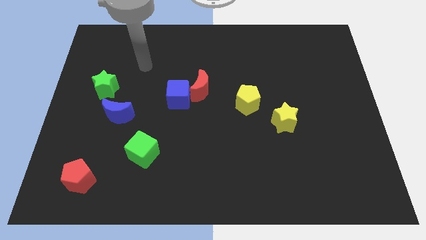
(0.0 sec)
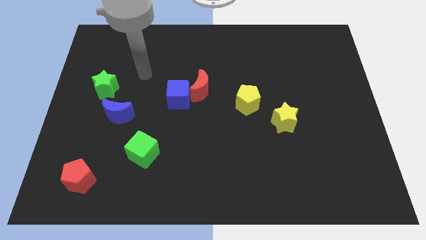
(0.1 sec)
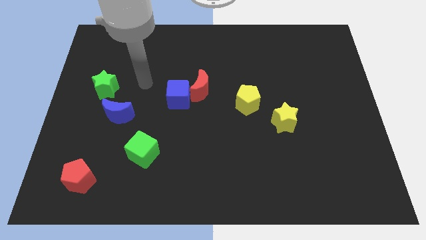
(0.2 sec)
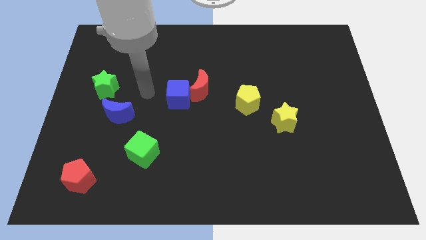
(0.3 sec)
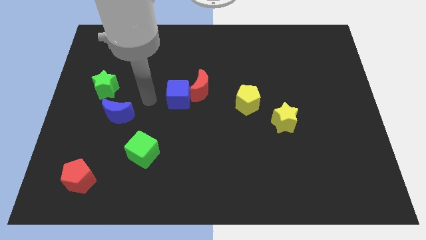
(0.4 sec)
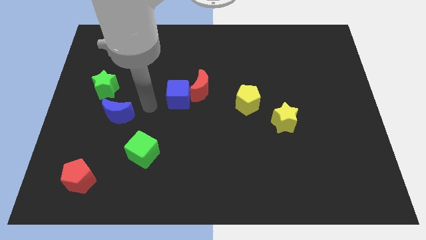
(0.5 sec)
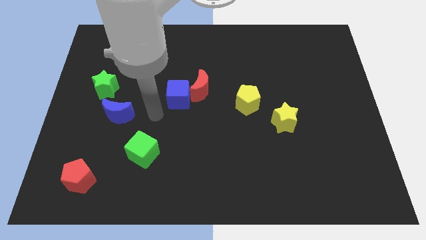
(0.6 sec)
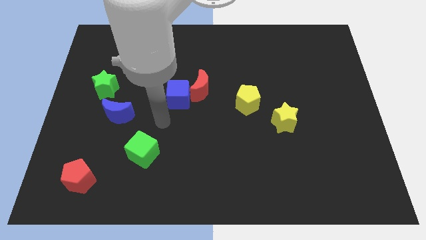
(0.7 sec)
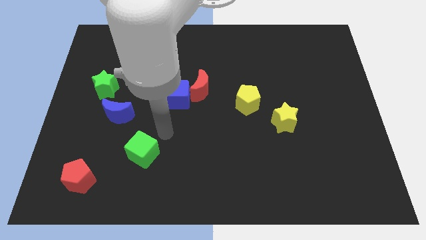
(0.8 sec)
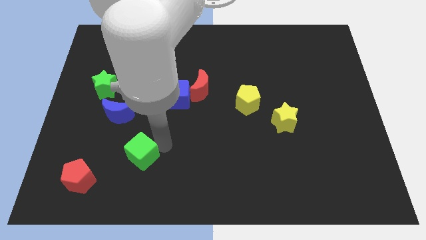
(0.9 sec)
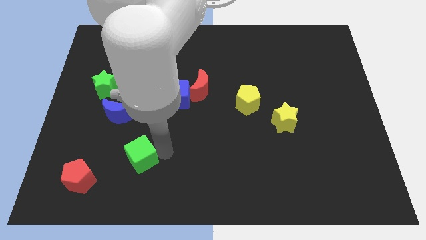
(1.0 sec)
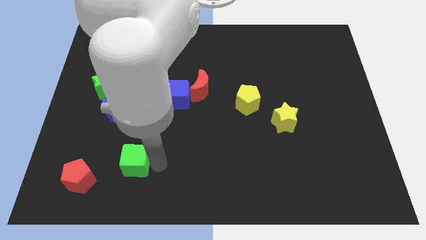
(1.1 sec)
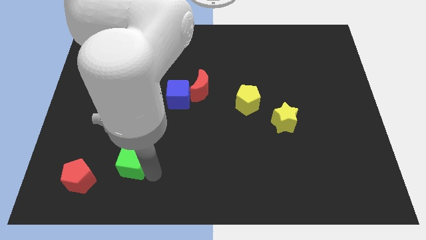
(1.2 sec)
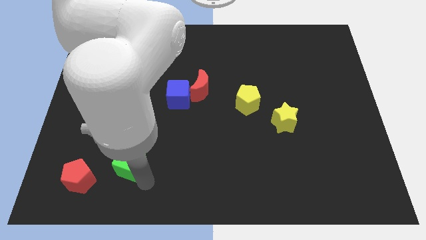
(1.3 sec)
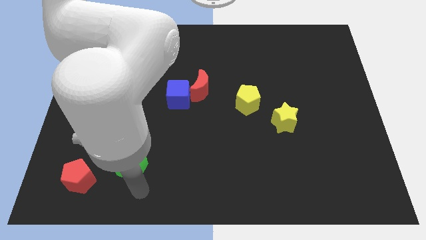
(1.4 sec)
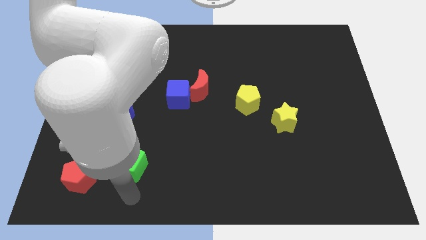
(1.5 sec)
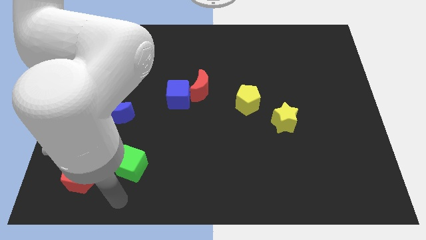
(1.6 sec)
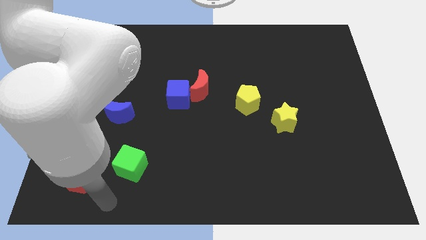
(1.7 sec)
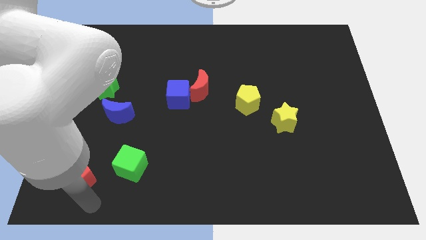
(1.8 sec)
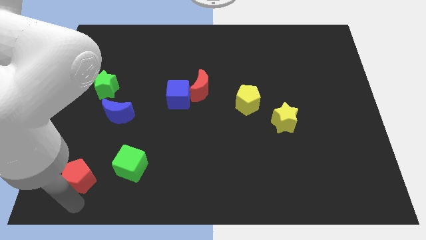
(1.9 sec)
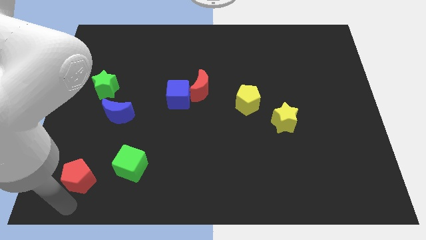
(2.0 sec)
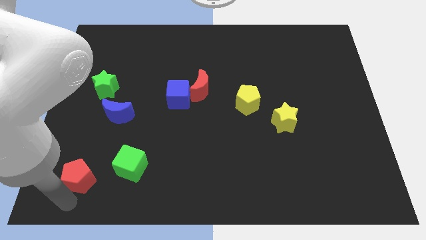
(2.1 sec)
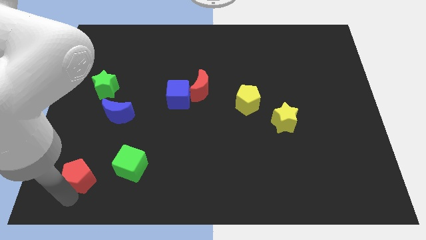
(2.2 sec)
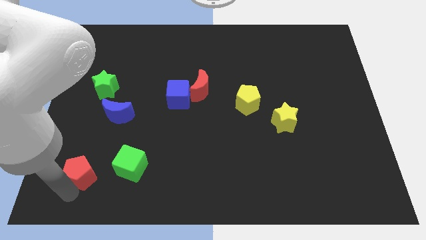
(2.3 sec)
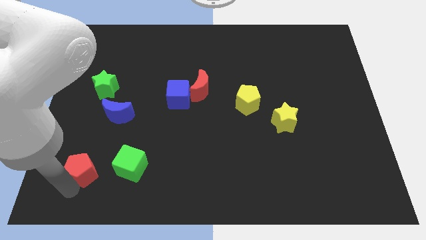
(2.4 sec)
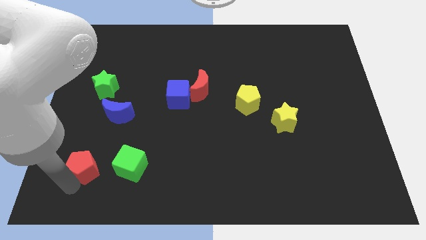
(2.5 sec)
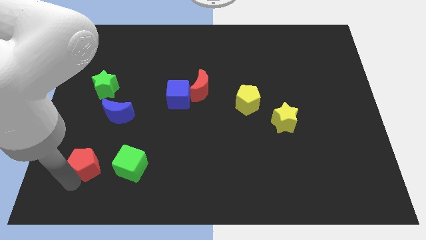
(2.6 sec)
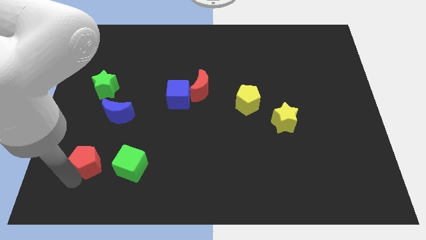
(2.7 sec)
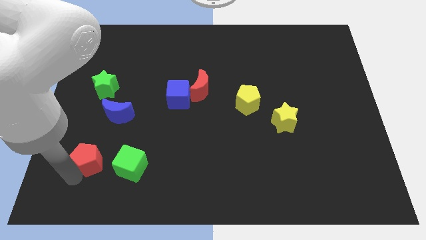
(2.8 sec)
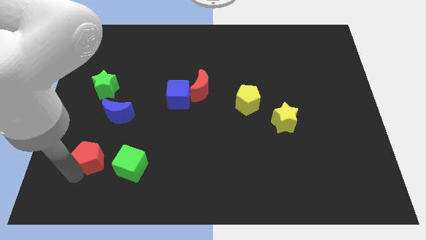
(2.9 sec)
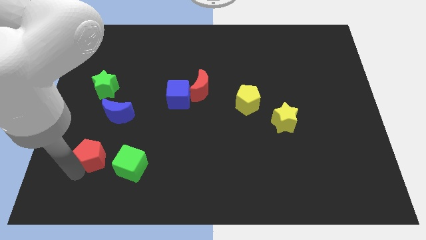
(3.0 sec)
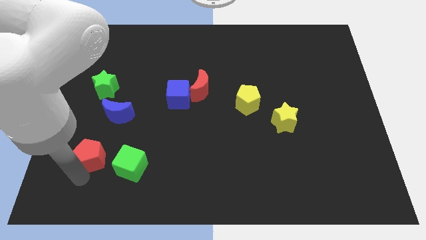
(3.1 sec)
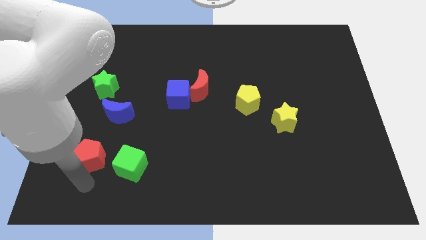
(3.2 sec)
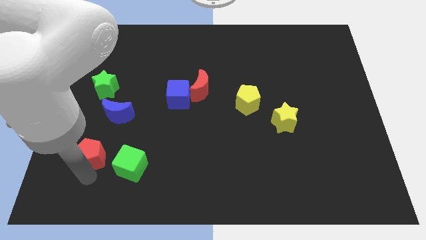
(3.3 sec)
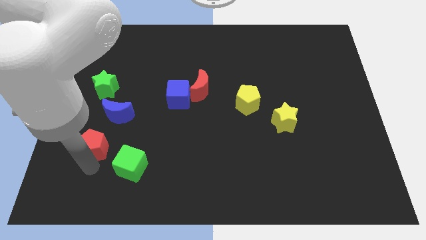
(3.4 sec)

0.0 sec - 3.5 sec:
push the red pentagon up a little bit

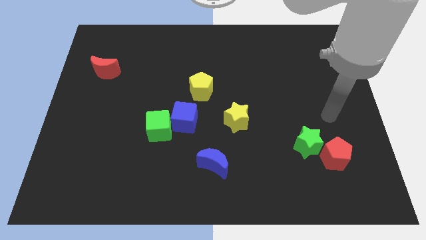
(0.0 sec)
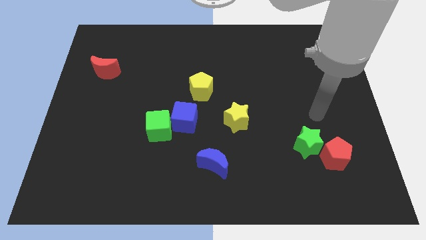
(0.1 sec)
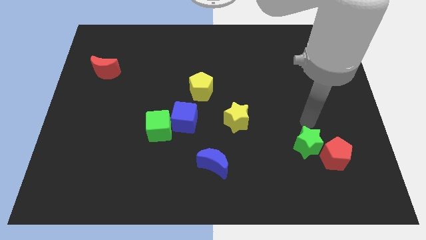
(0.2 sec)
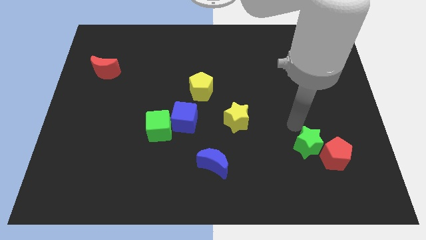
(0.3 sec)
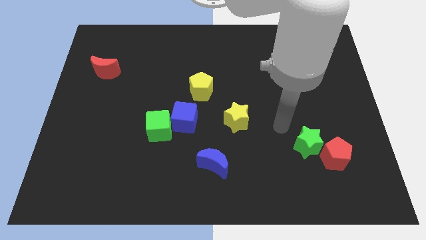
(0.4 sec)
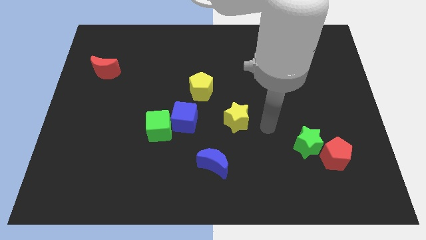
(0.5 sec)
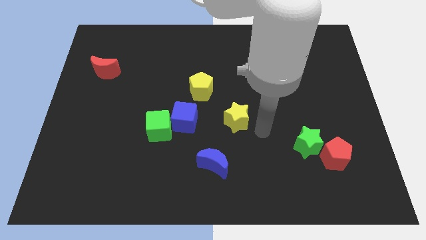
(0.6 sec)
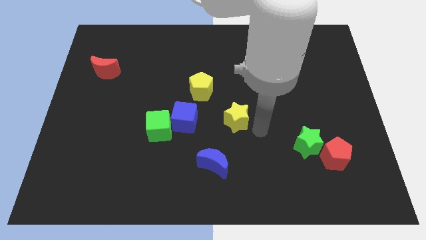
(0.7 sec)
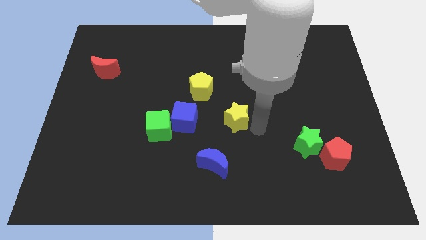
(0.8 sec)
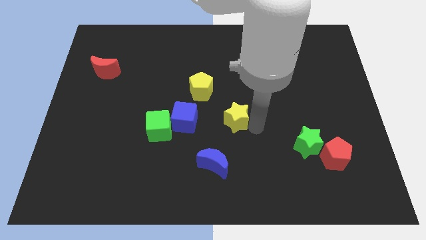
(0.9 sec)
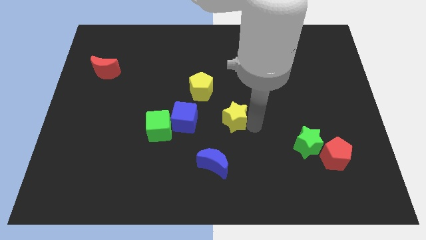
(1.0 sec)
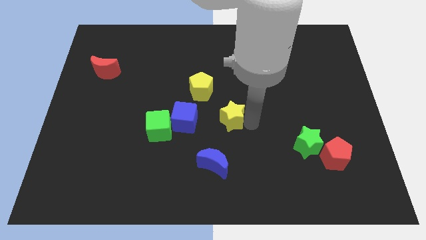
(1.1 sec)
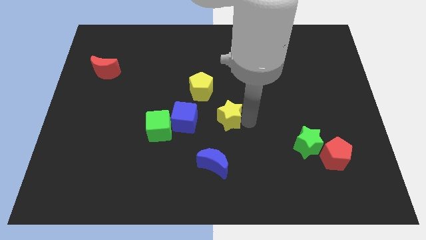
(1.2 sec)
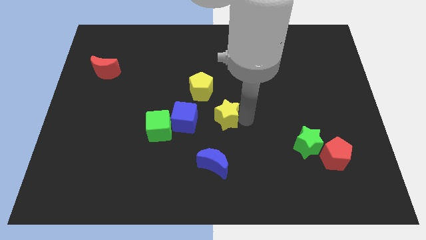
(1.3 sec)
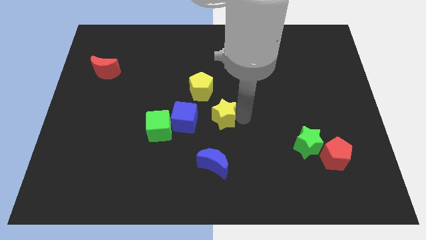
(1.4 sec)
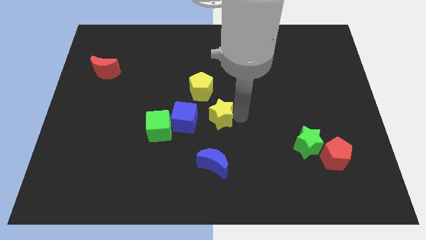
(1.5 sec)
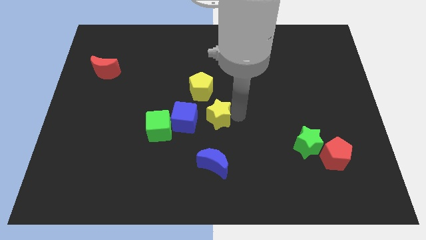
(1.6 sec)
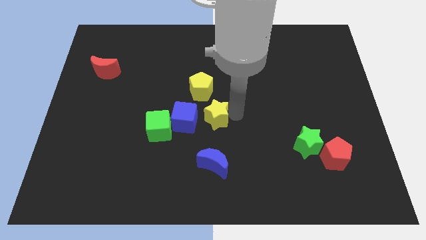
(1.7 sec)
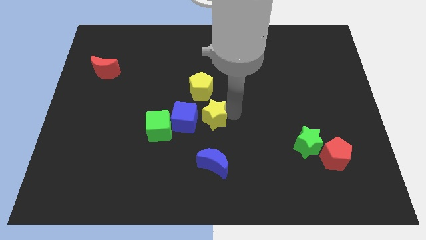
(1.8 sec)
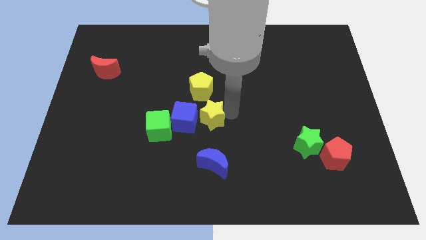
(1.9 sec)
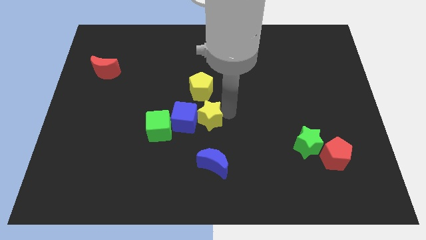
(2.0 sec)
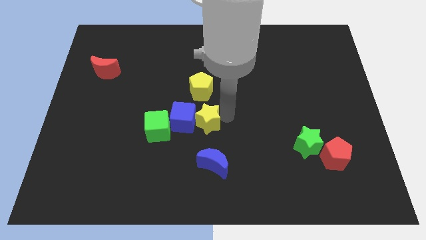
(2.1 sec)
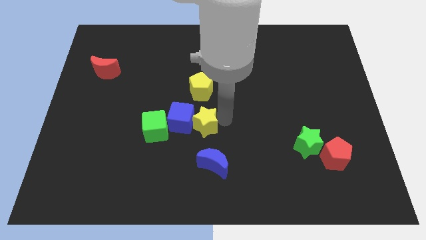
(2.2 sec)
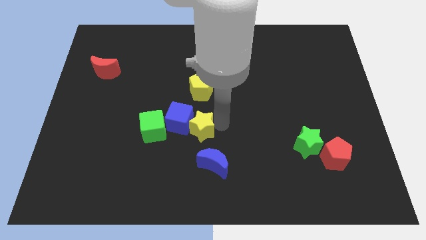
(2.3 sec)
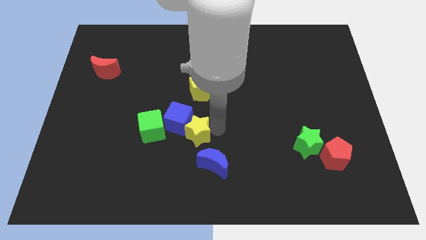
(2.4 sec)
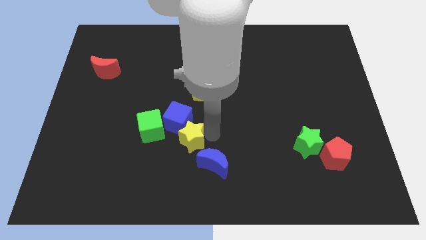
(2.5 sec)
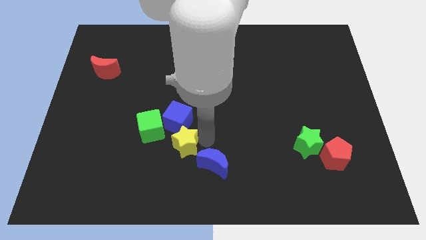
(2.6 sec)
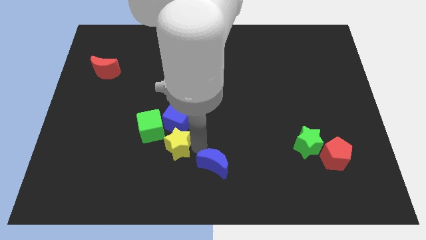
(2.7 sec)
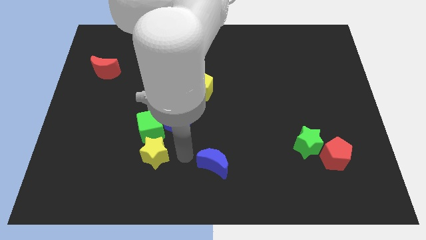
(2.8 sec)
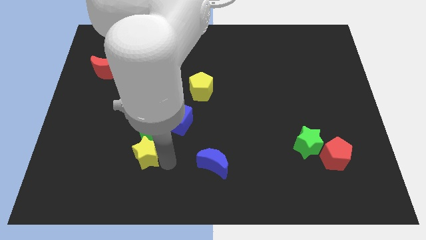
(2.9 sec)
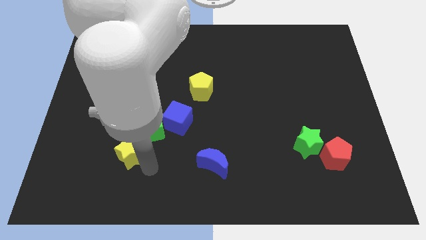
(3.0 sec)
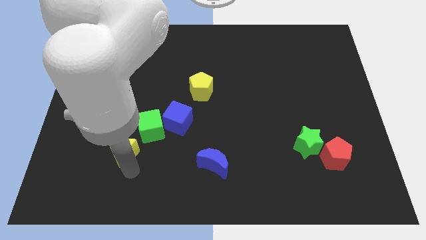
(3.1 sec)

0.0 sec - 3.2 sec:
slide the yellow star to the left

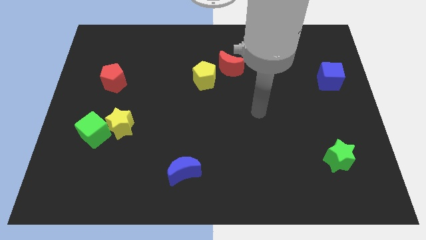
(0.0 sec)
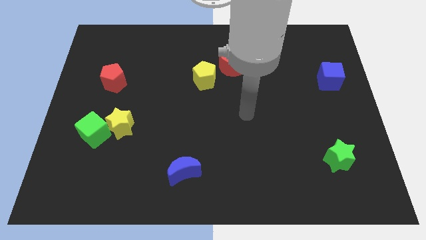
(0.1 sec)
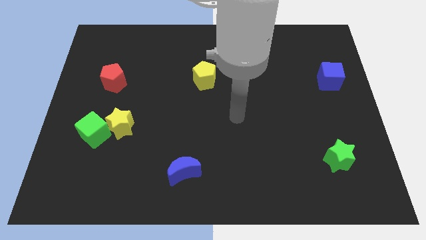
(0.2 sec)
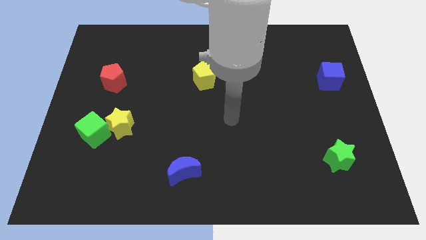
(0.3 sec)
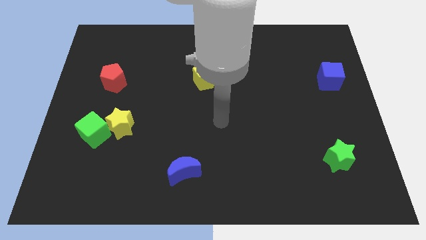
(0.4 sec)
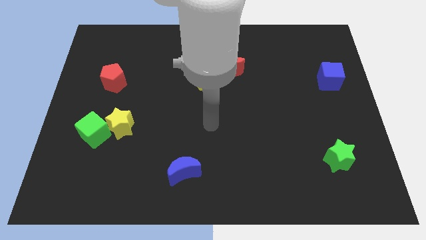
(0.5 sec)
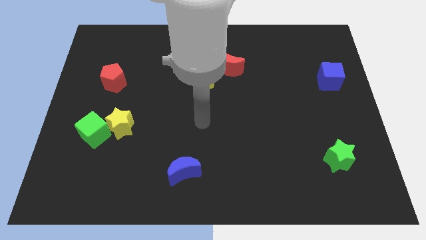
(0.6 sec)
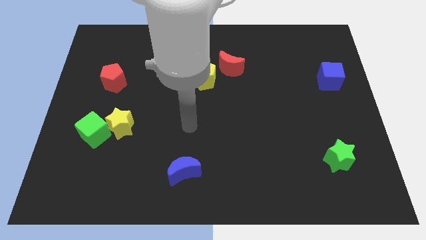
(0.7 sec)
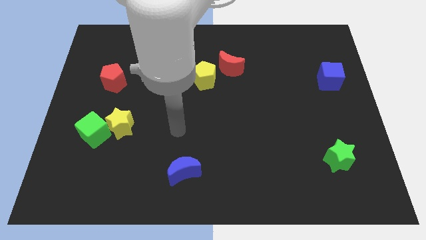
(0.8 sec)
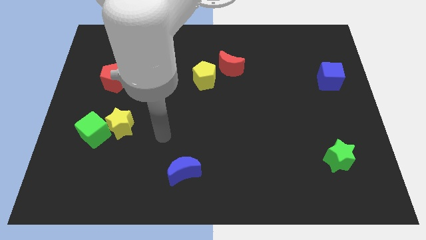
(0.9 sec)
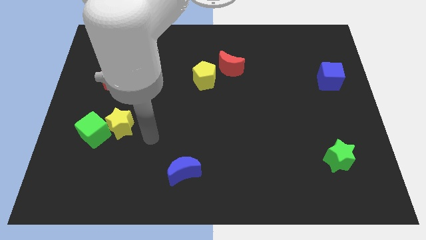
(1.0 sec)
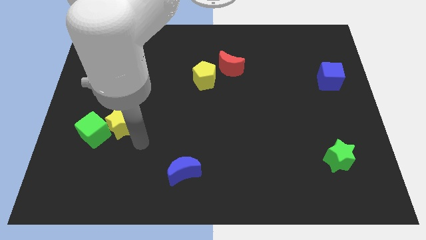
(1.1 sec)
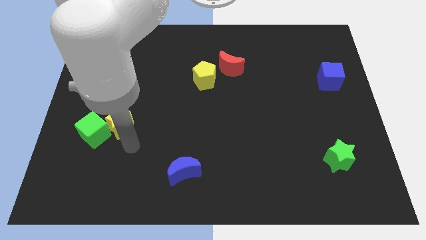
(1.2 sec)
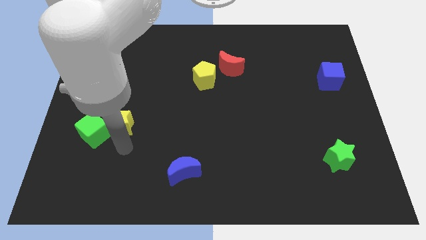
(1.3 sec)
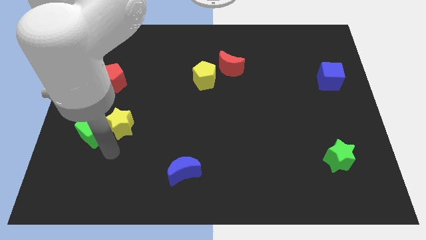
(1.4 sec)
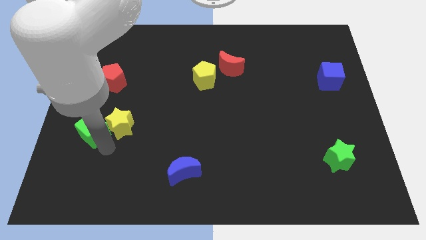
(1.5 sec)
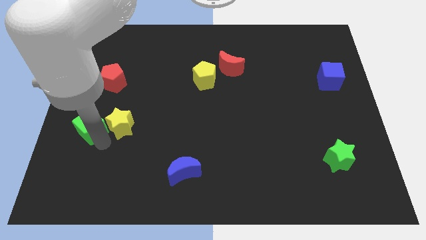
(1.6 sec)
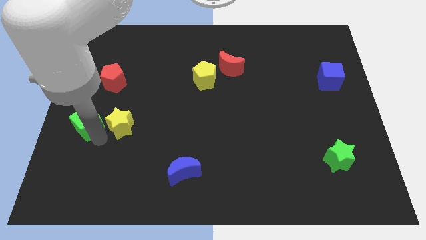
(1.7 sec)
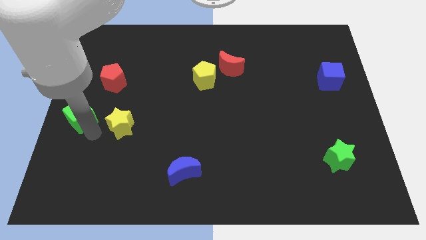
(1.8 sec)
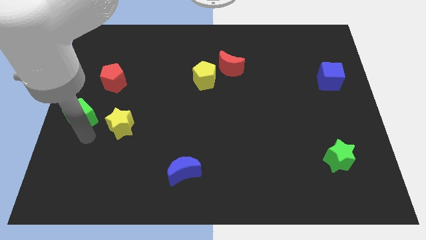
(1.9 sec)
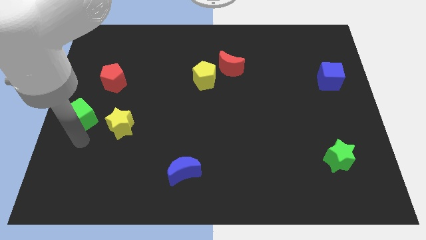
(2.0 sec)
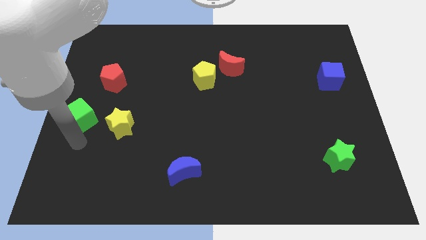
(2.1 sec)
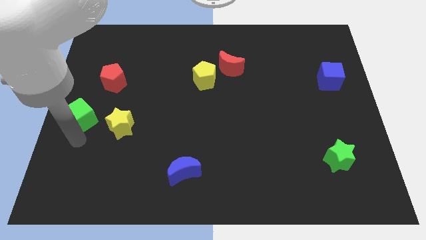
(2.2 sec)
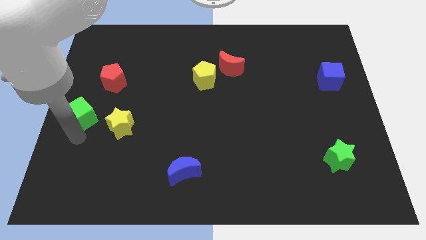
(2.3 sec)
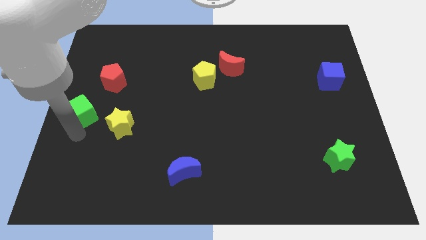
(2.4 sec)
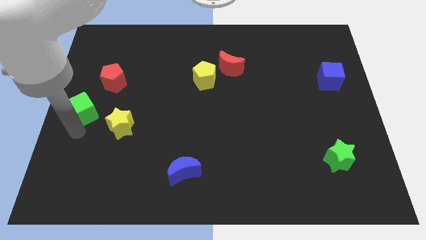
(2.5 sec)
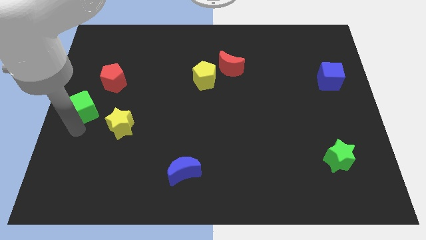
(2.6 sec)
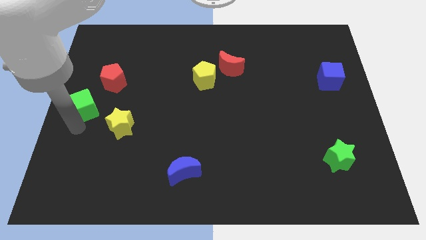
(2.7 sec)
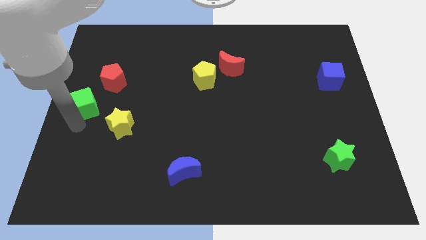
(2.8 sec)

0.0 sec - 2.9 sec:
slightly push the green cube up
